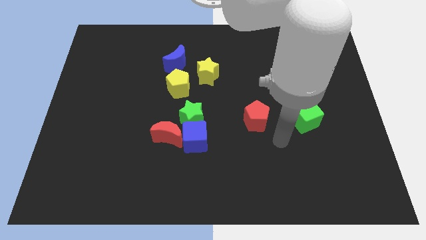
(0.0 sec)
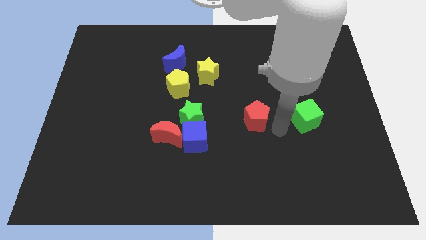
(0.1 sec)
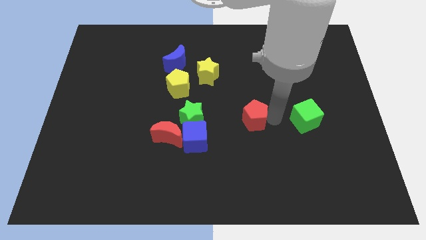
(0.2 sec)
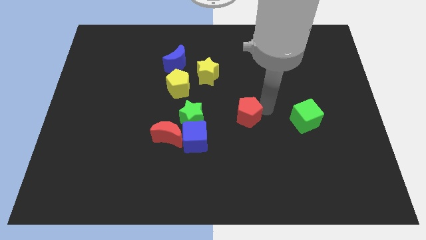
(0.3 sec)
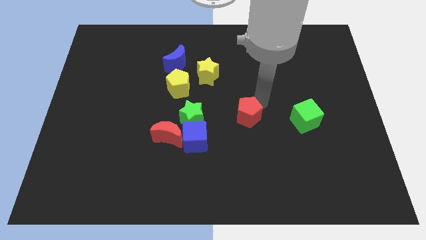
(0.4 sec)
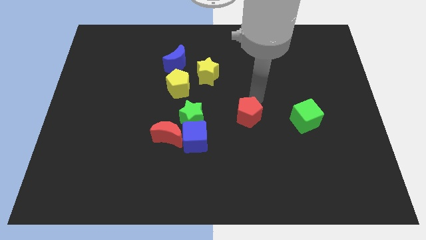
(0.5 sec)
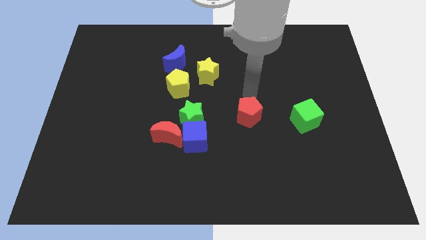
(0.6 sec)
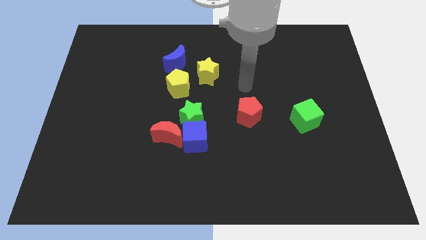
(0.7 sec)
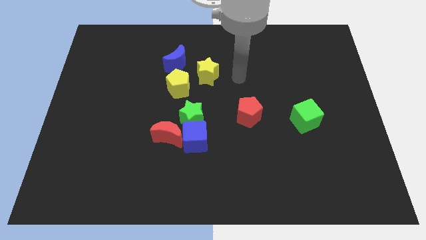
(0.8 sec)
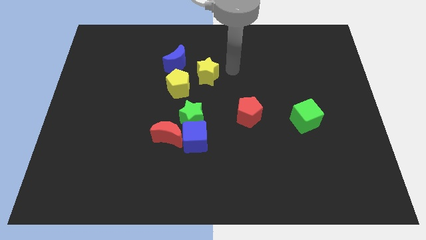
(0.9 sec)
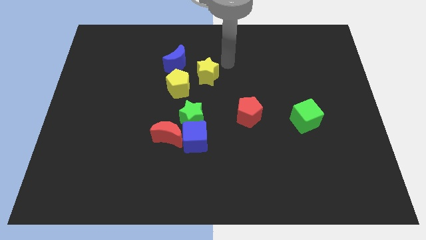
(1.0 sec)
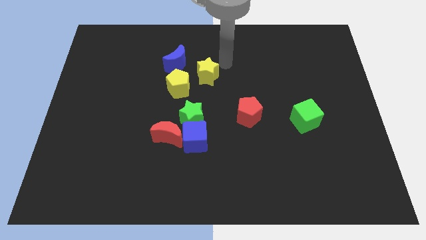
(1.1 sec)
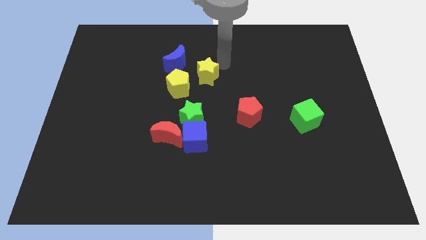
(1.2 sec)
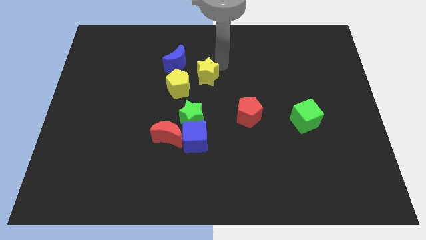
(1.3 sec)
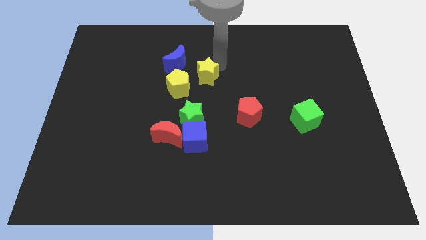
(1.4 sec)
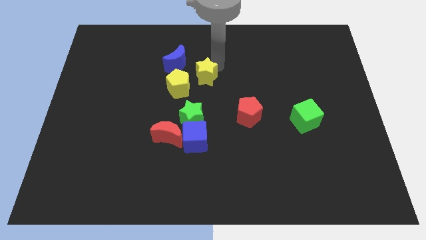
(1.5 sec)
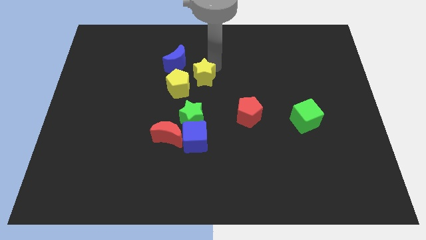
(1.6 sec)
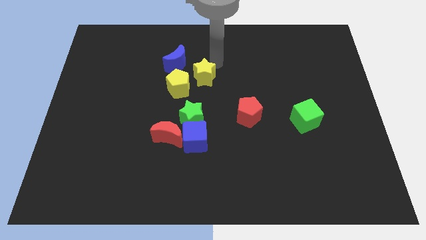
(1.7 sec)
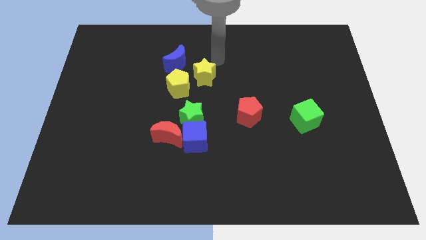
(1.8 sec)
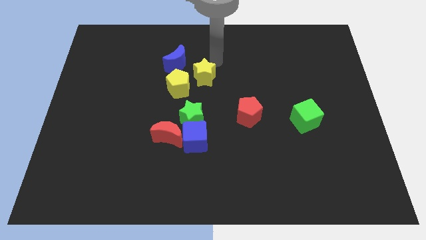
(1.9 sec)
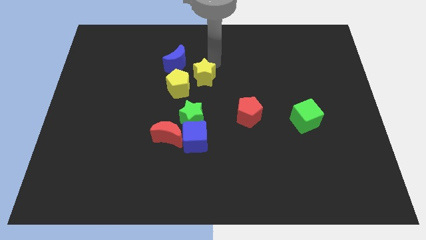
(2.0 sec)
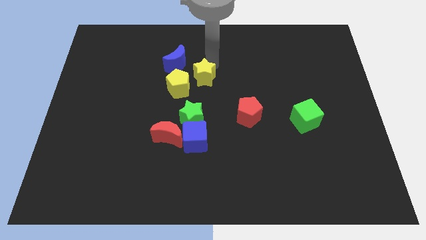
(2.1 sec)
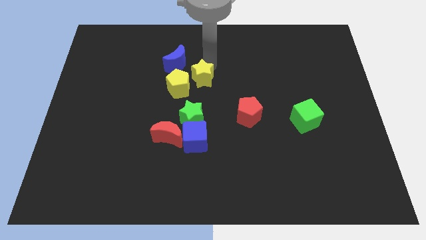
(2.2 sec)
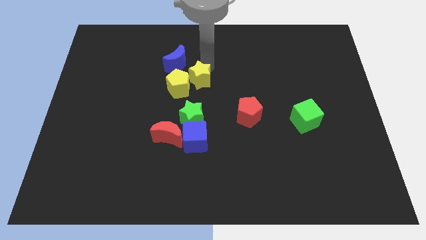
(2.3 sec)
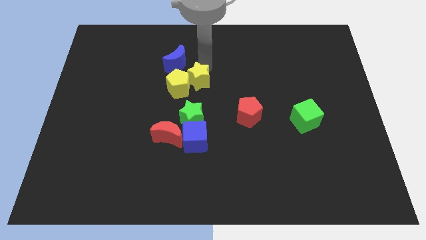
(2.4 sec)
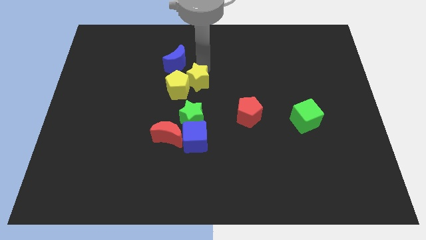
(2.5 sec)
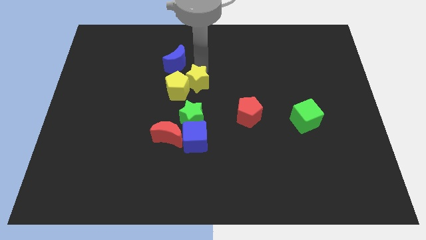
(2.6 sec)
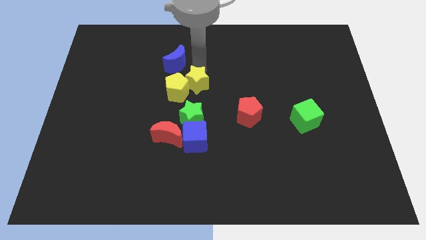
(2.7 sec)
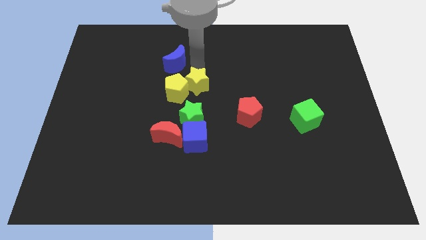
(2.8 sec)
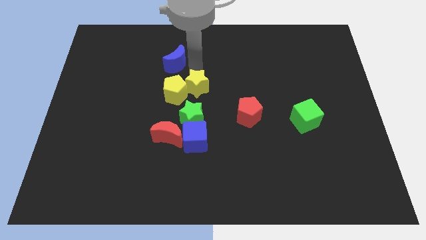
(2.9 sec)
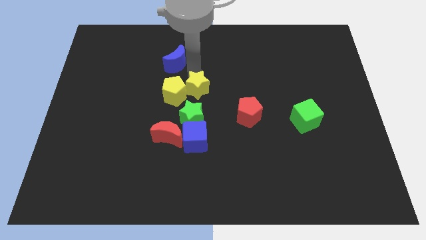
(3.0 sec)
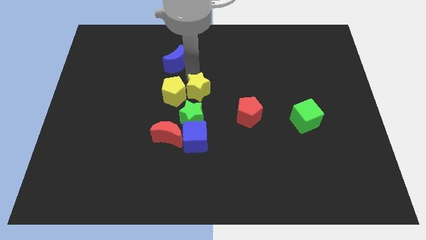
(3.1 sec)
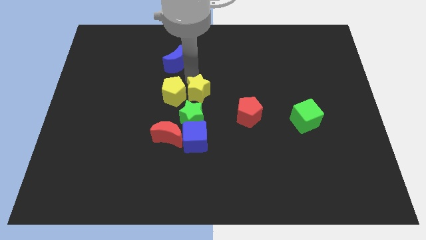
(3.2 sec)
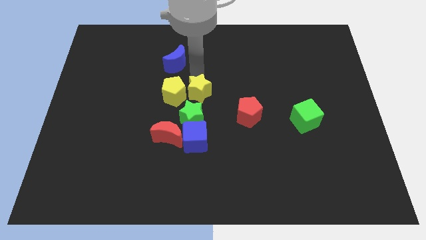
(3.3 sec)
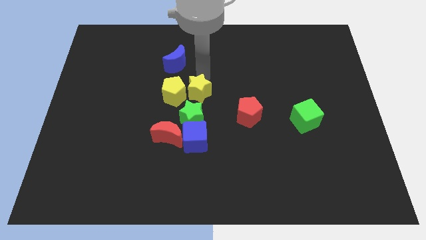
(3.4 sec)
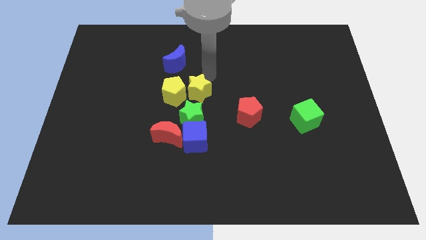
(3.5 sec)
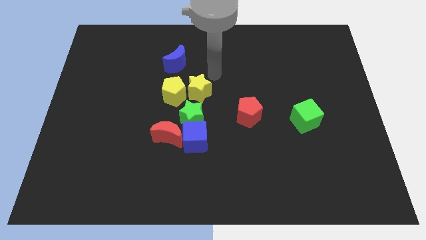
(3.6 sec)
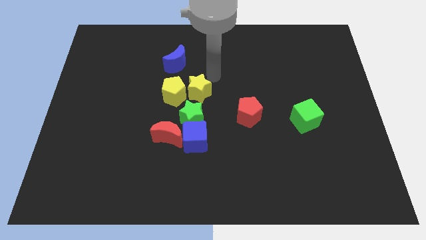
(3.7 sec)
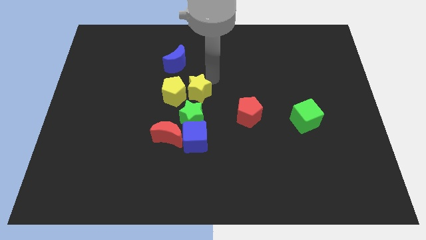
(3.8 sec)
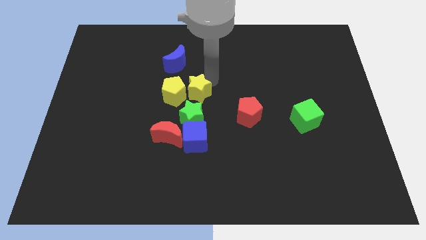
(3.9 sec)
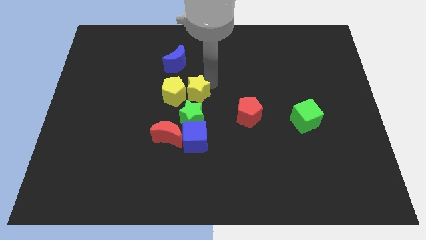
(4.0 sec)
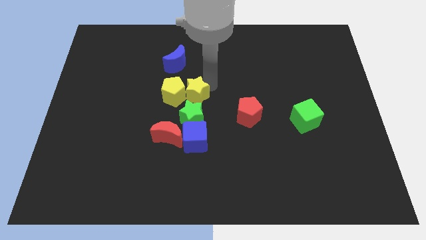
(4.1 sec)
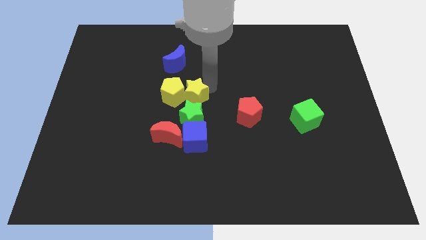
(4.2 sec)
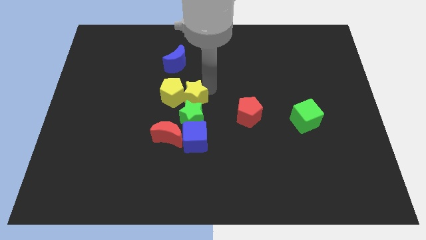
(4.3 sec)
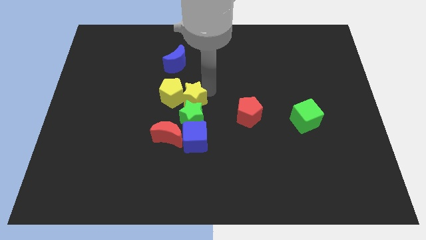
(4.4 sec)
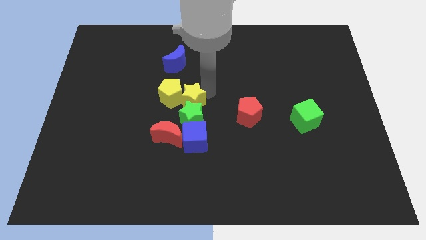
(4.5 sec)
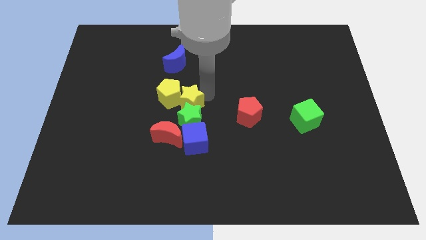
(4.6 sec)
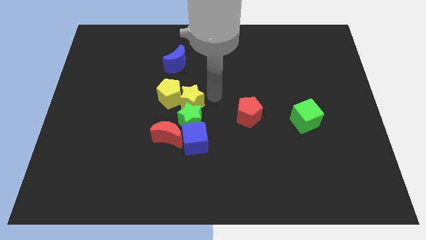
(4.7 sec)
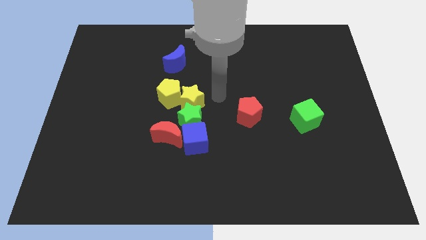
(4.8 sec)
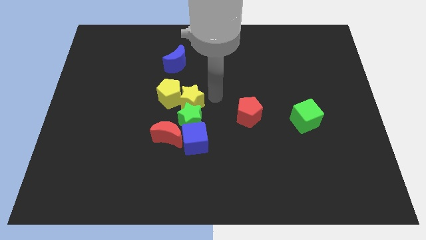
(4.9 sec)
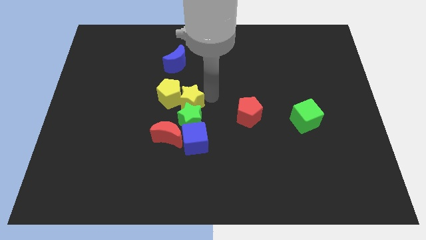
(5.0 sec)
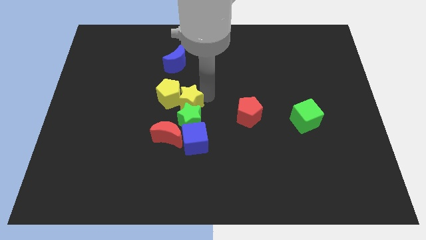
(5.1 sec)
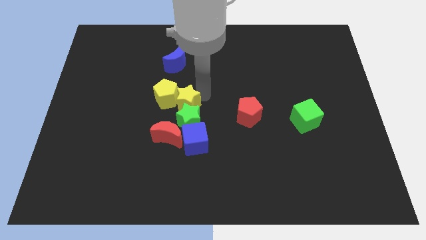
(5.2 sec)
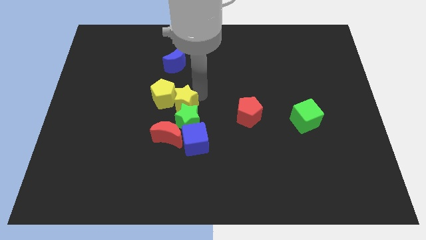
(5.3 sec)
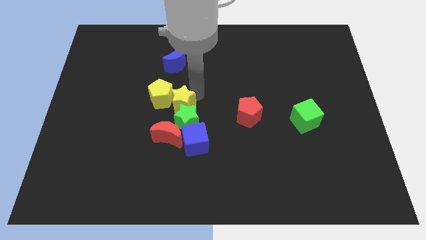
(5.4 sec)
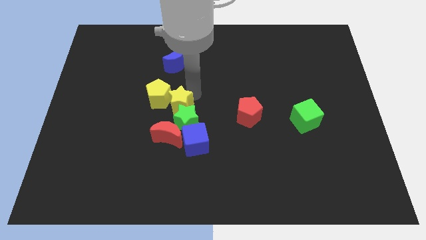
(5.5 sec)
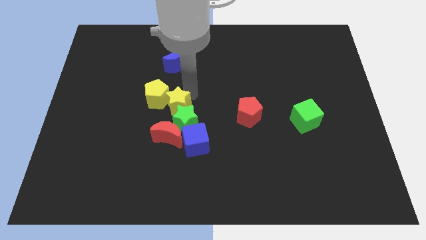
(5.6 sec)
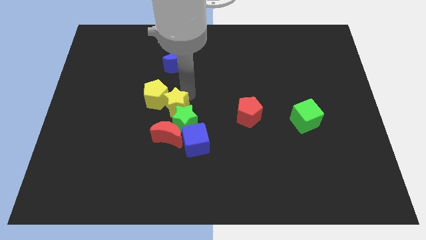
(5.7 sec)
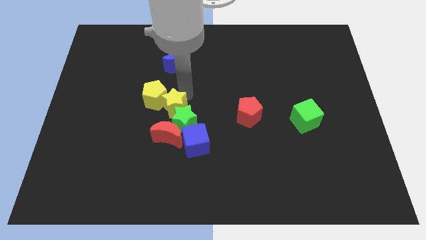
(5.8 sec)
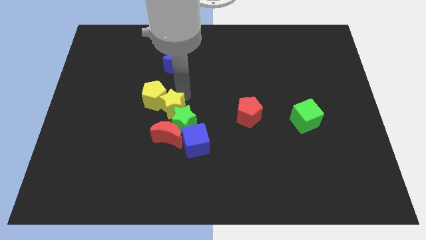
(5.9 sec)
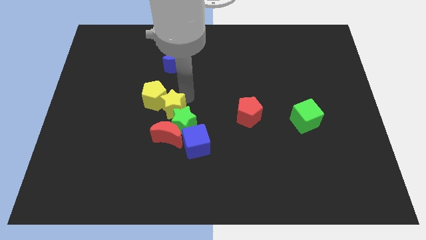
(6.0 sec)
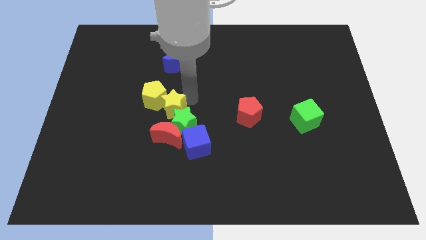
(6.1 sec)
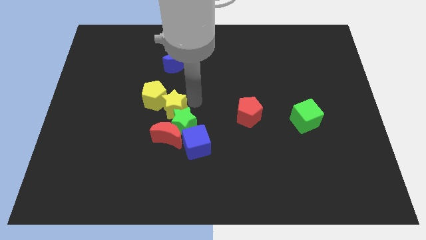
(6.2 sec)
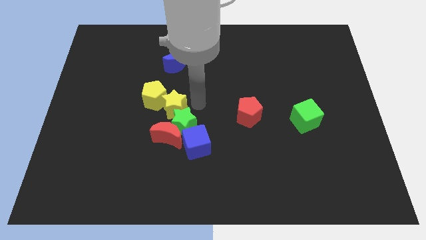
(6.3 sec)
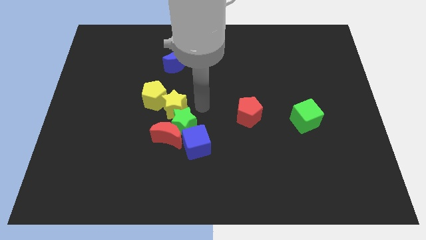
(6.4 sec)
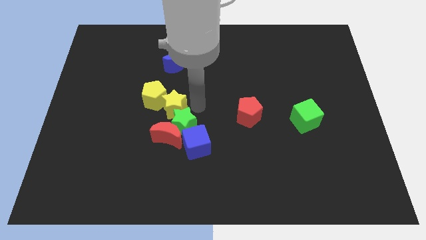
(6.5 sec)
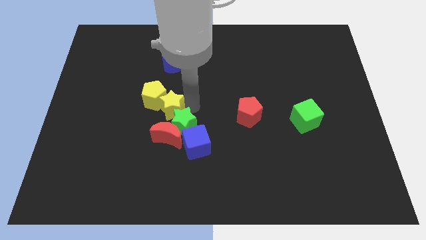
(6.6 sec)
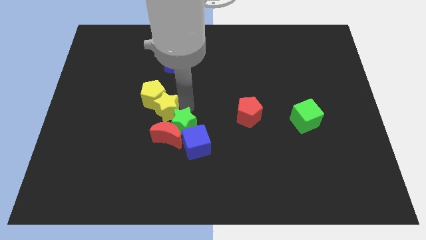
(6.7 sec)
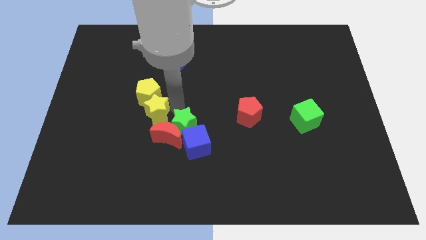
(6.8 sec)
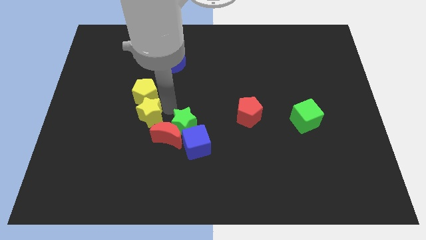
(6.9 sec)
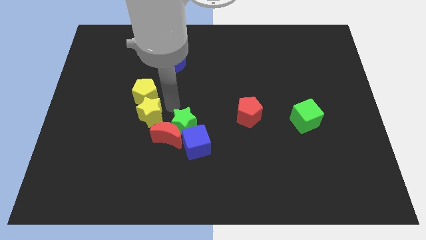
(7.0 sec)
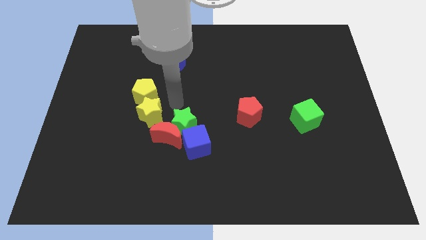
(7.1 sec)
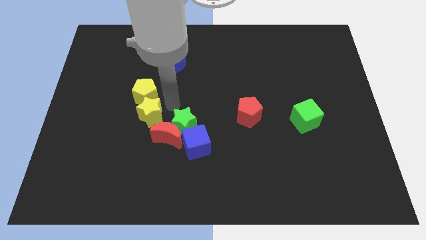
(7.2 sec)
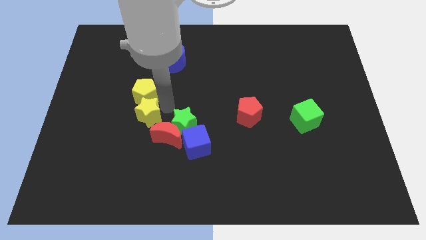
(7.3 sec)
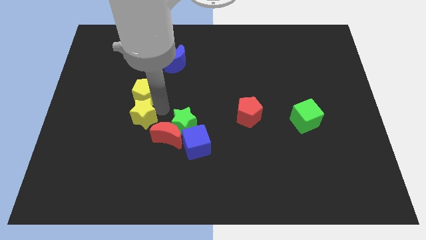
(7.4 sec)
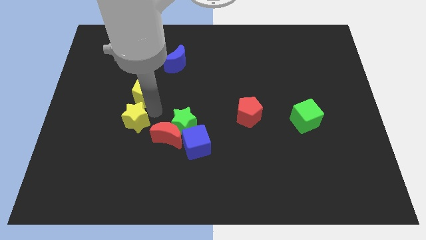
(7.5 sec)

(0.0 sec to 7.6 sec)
push the yellow star down and left diagonally

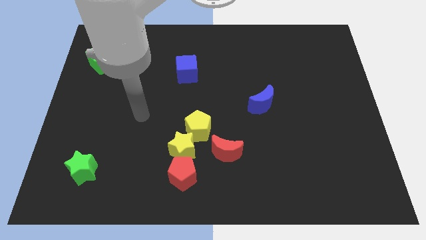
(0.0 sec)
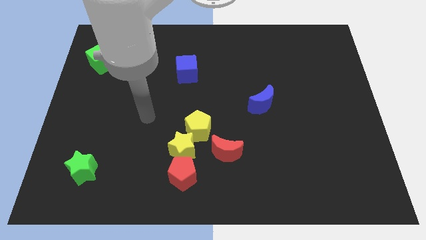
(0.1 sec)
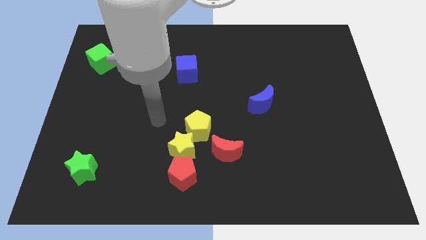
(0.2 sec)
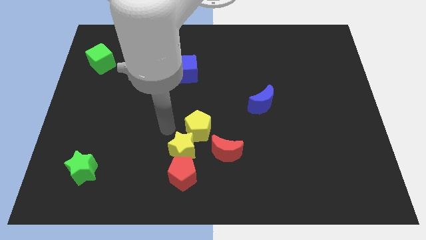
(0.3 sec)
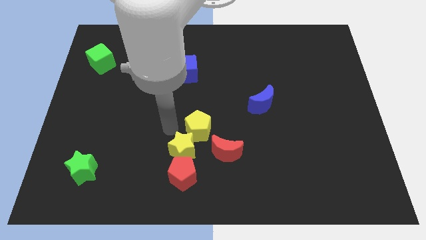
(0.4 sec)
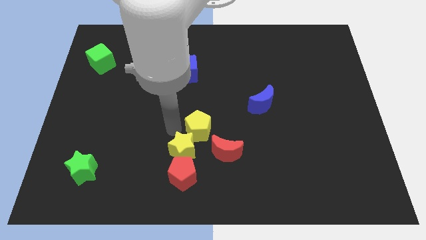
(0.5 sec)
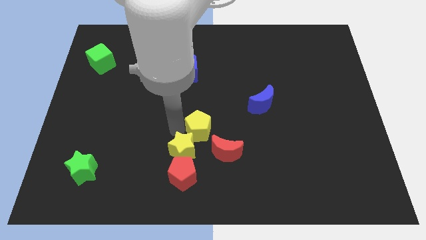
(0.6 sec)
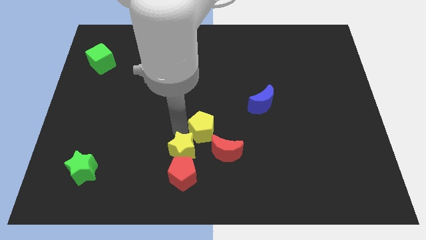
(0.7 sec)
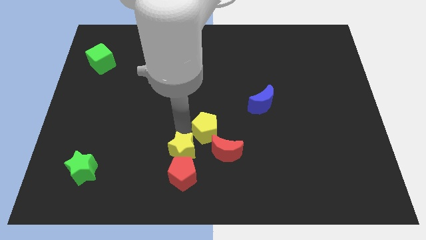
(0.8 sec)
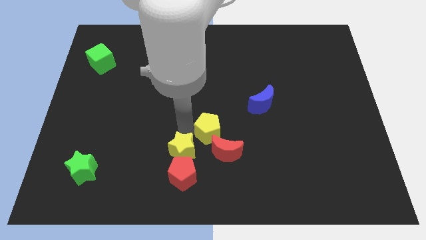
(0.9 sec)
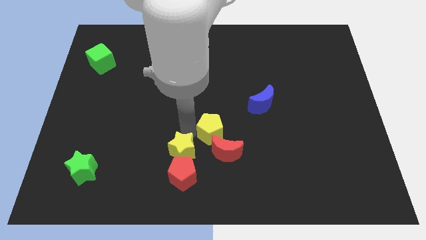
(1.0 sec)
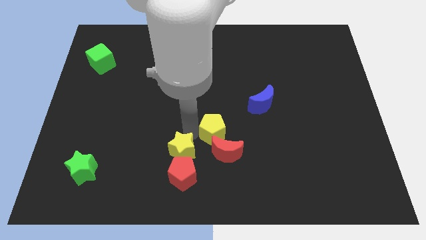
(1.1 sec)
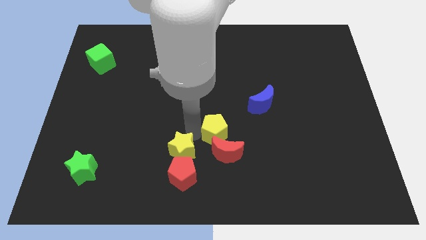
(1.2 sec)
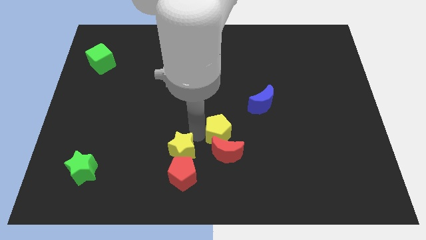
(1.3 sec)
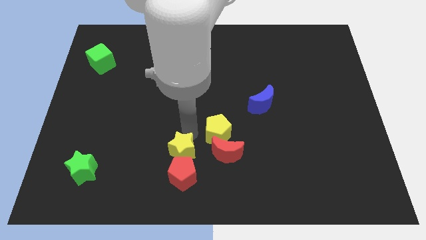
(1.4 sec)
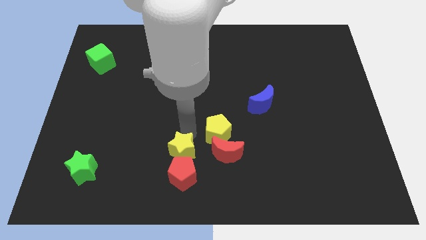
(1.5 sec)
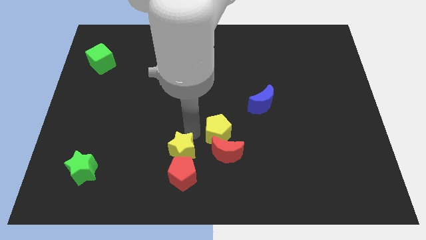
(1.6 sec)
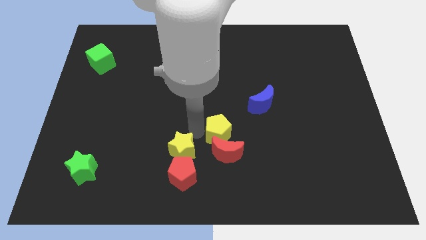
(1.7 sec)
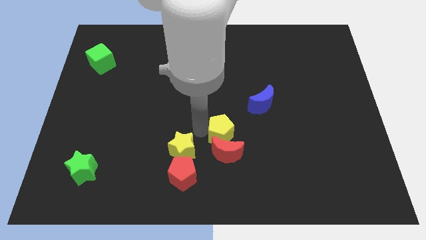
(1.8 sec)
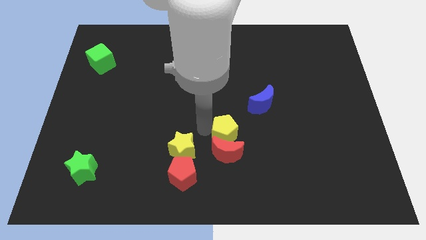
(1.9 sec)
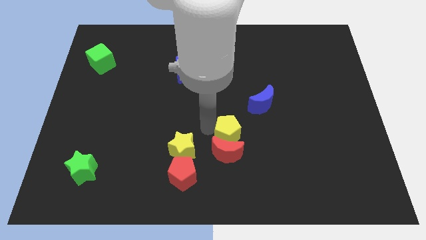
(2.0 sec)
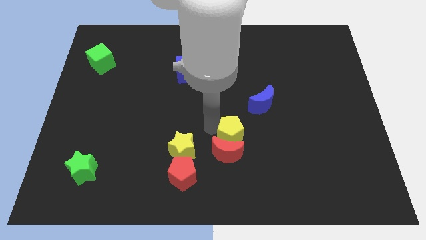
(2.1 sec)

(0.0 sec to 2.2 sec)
move the yellow pentagon to the right slightly
